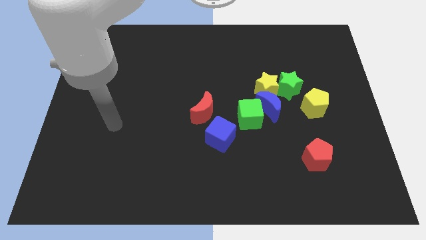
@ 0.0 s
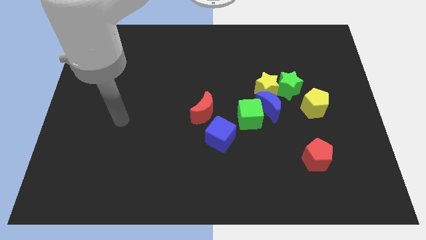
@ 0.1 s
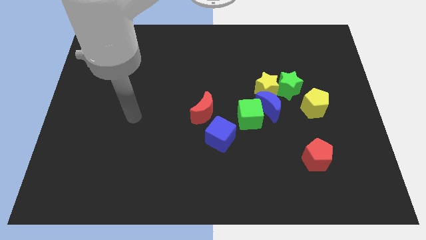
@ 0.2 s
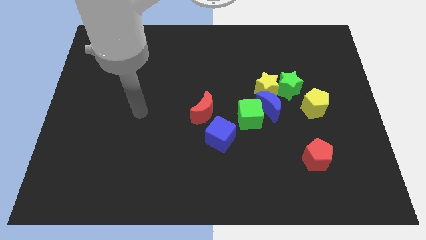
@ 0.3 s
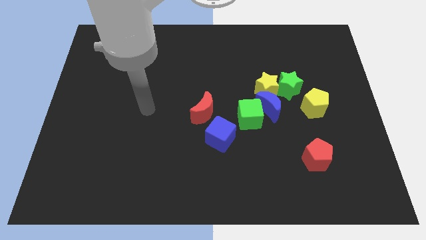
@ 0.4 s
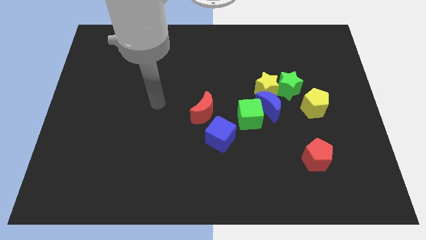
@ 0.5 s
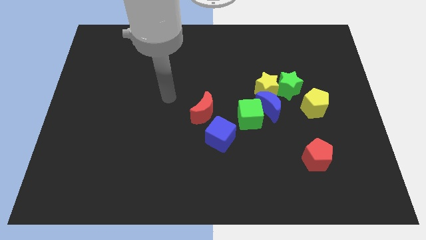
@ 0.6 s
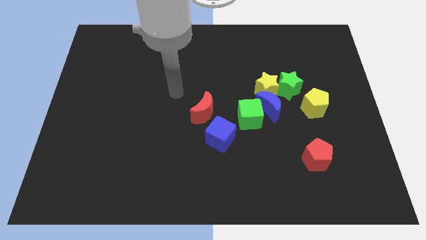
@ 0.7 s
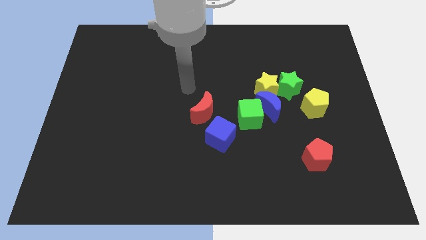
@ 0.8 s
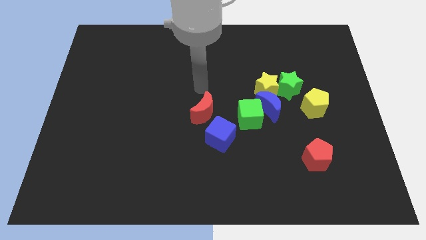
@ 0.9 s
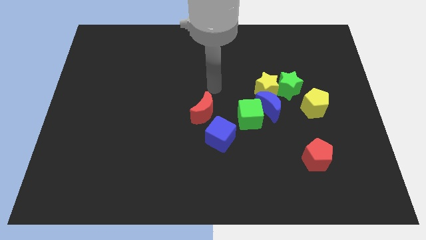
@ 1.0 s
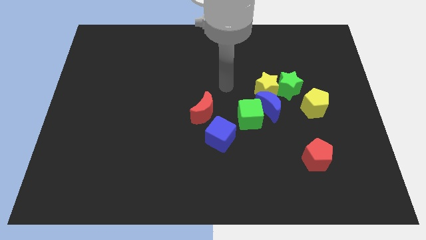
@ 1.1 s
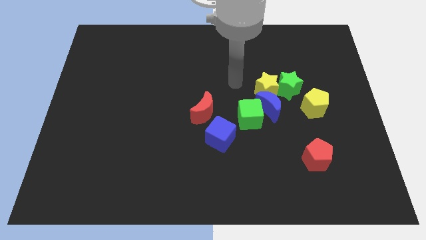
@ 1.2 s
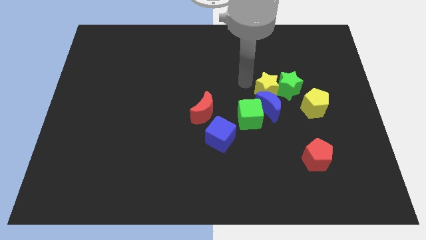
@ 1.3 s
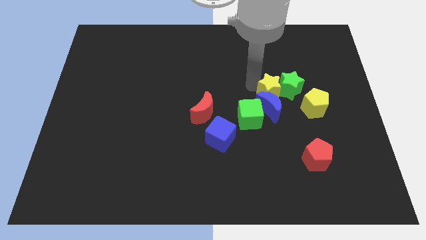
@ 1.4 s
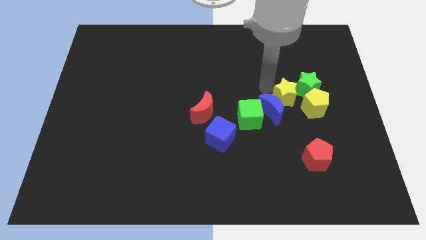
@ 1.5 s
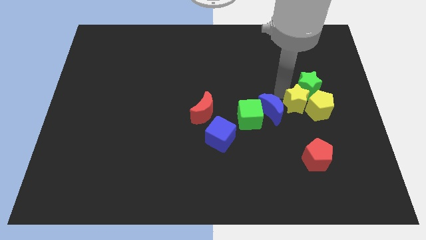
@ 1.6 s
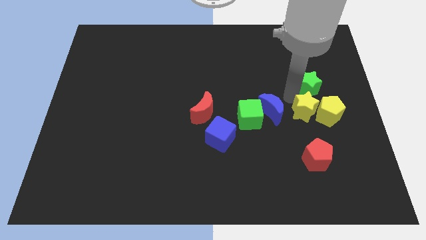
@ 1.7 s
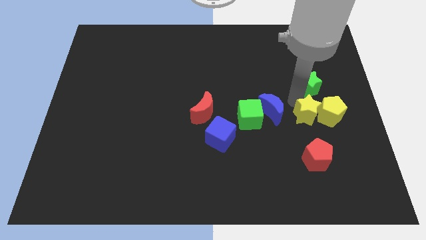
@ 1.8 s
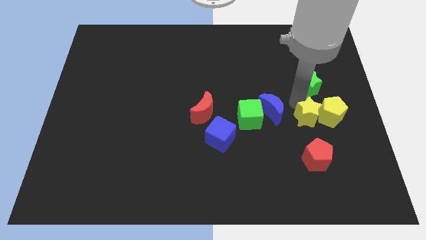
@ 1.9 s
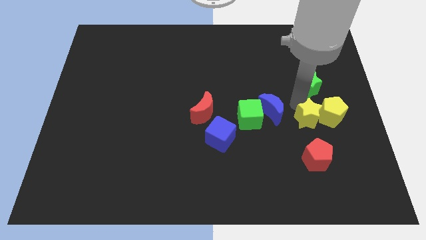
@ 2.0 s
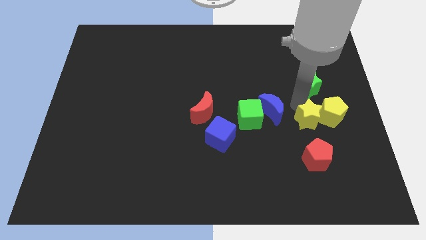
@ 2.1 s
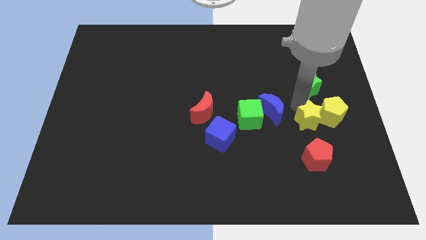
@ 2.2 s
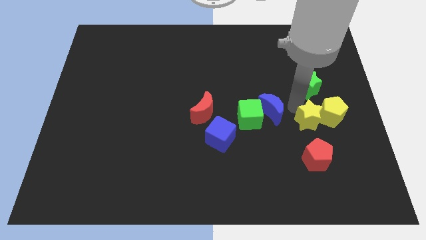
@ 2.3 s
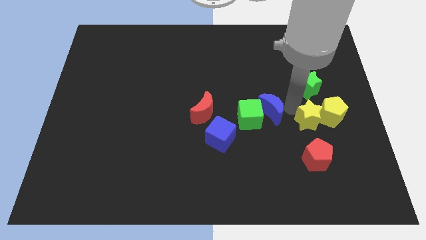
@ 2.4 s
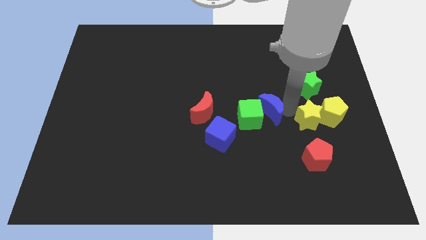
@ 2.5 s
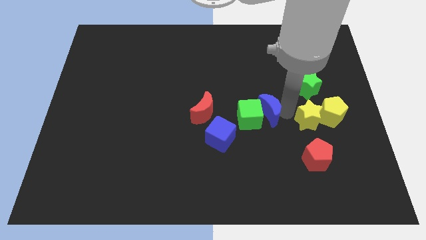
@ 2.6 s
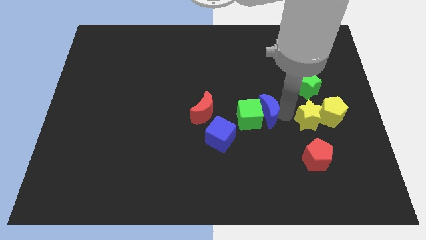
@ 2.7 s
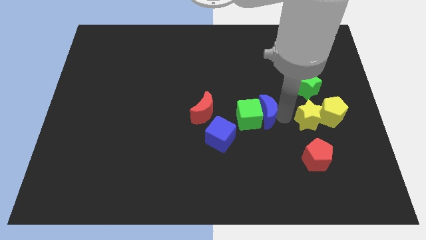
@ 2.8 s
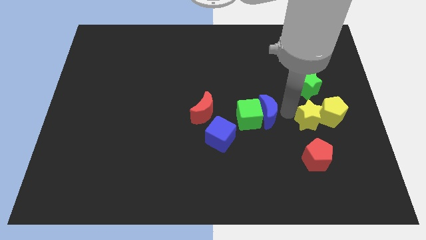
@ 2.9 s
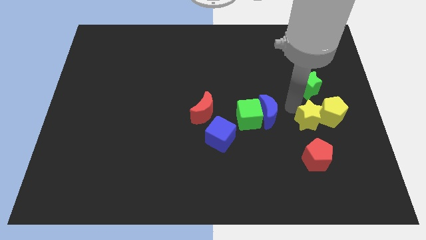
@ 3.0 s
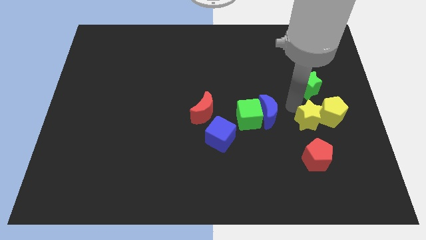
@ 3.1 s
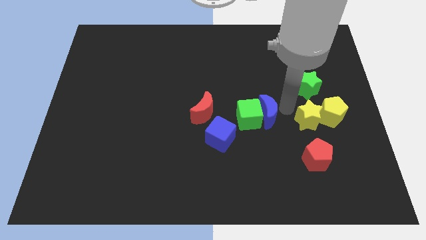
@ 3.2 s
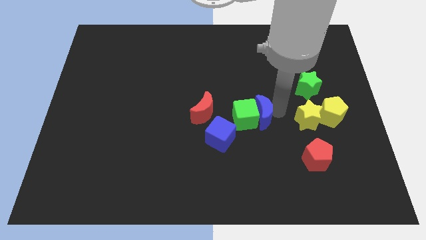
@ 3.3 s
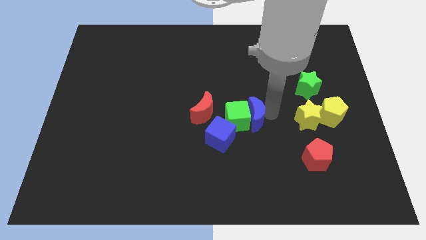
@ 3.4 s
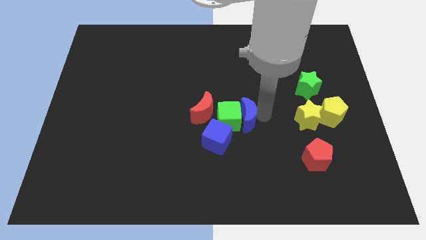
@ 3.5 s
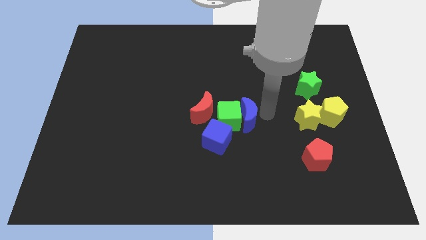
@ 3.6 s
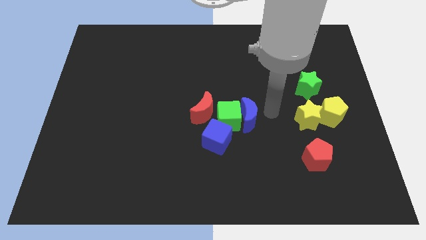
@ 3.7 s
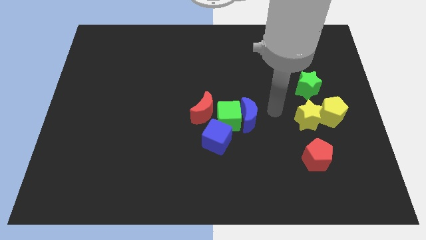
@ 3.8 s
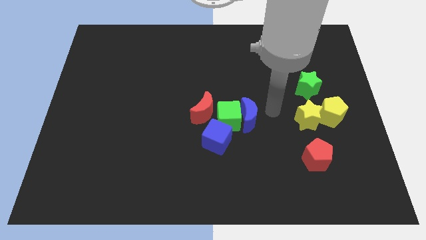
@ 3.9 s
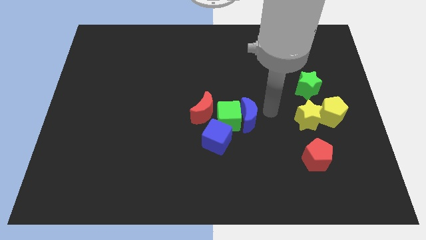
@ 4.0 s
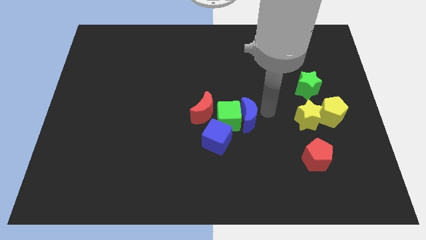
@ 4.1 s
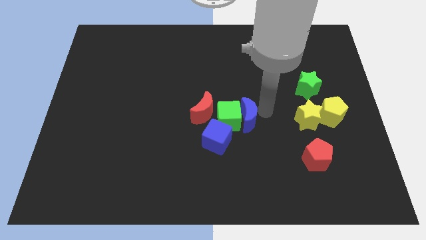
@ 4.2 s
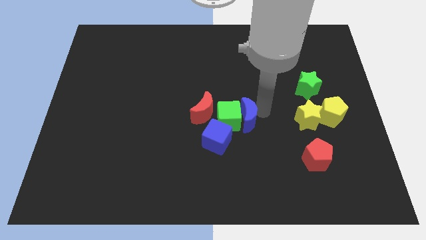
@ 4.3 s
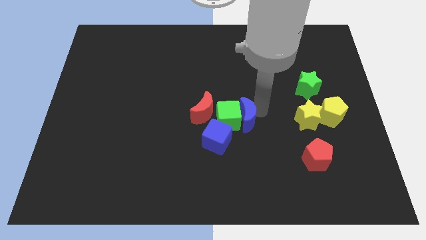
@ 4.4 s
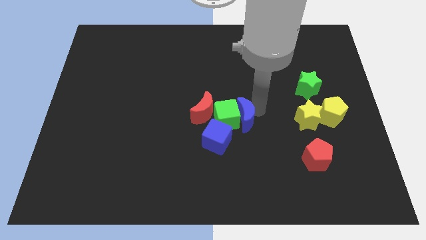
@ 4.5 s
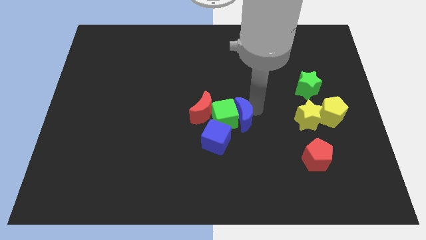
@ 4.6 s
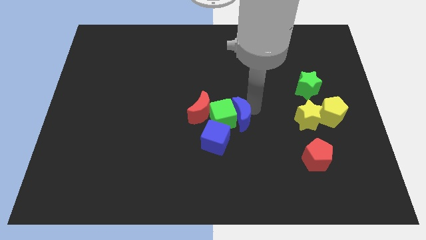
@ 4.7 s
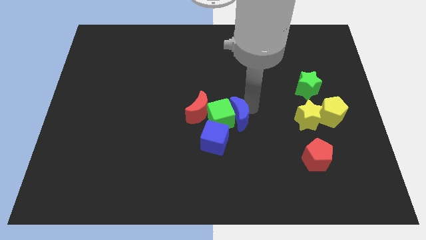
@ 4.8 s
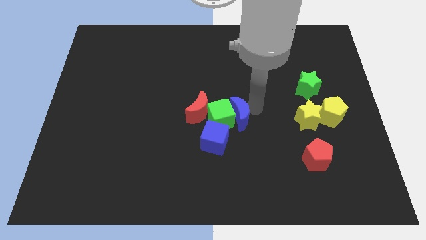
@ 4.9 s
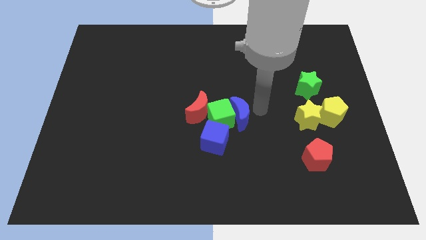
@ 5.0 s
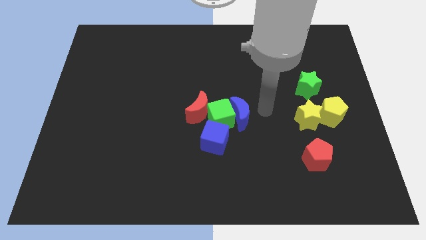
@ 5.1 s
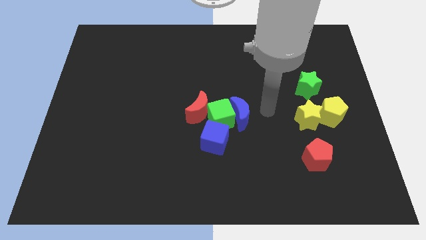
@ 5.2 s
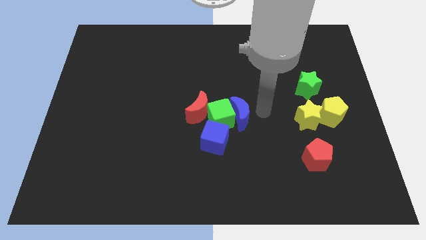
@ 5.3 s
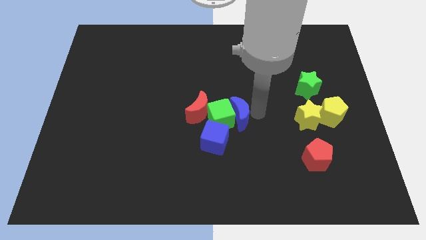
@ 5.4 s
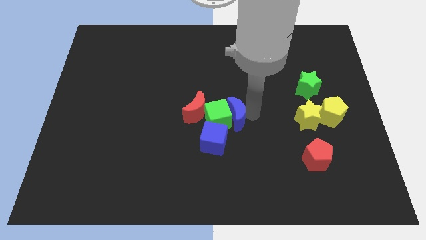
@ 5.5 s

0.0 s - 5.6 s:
separate the blue moon from the group

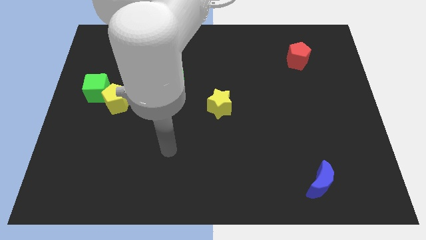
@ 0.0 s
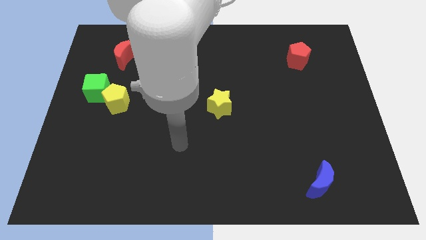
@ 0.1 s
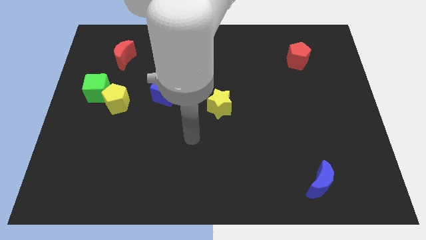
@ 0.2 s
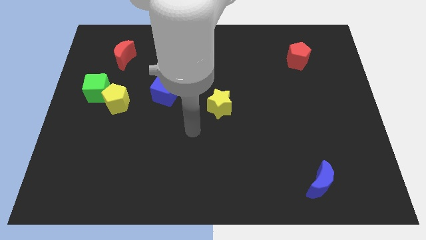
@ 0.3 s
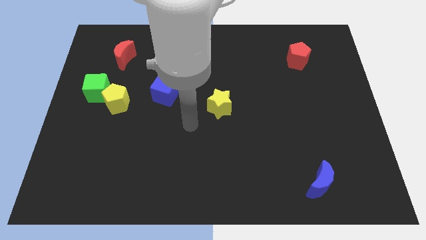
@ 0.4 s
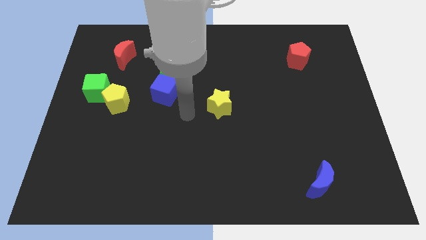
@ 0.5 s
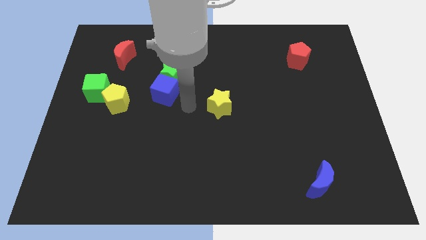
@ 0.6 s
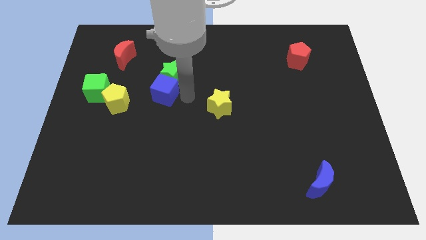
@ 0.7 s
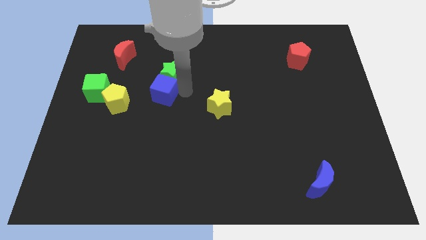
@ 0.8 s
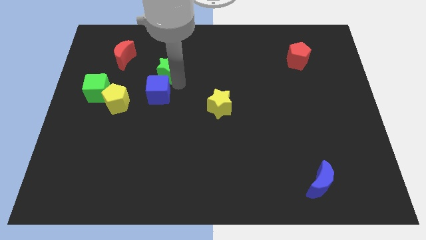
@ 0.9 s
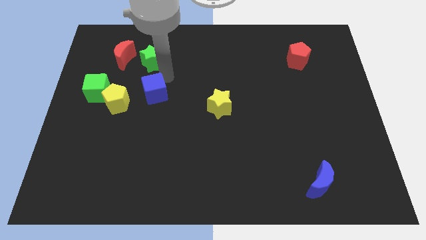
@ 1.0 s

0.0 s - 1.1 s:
separate the blue cube from the green star

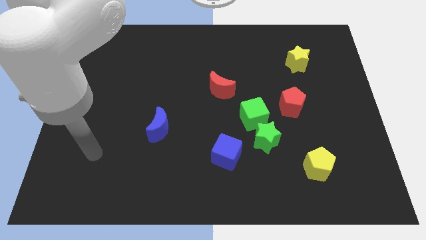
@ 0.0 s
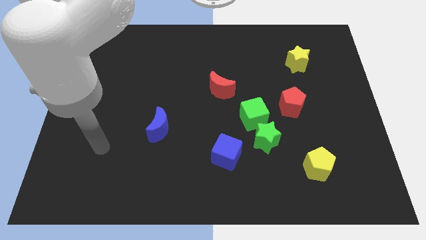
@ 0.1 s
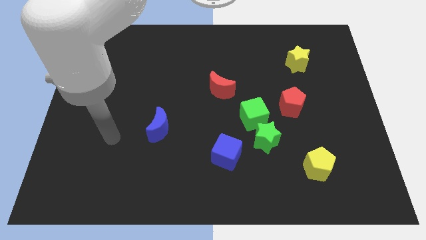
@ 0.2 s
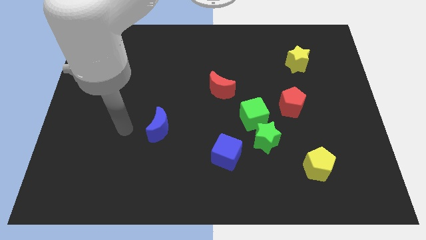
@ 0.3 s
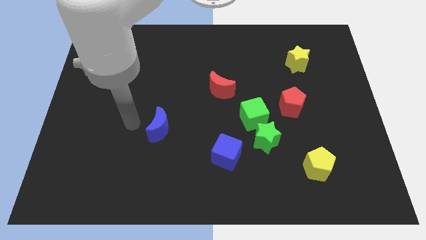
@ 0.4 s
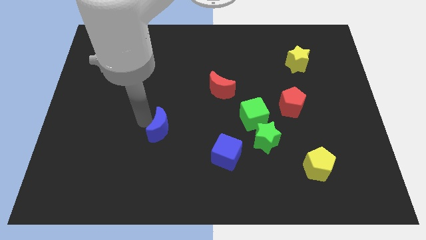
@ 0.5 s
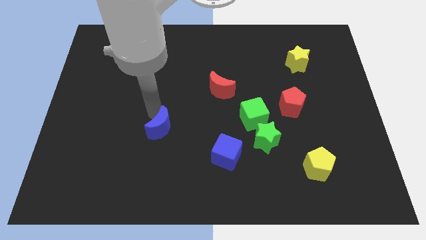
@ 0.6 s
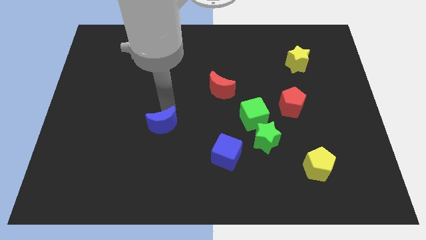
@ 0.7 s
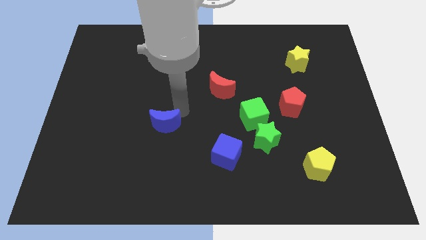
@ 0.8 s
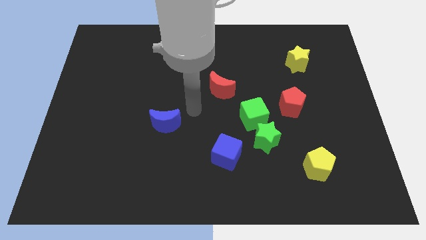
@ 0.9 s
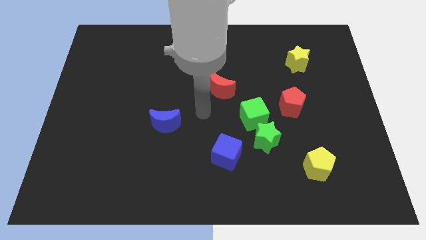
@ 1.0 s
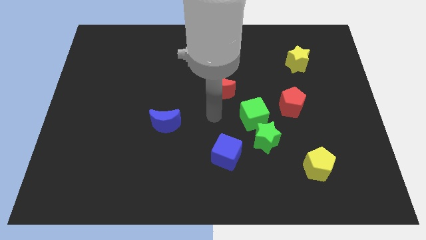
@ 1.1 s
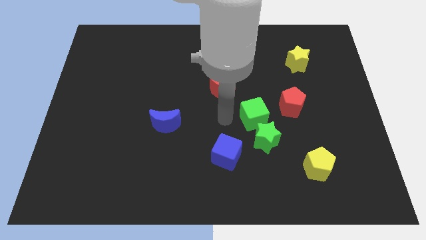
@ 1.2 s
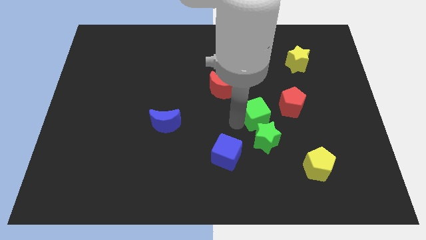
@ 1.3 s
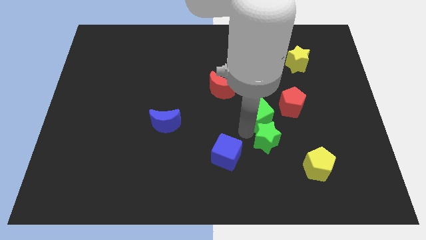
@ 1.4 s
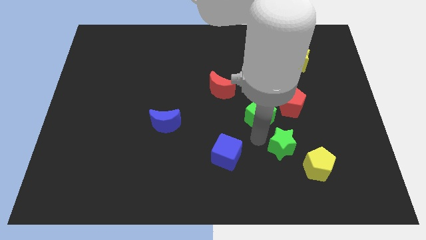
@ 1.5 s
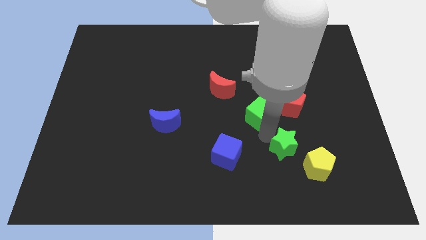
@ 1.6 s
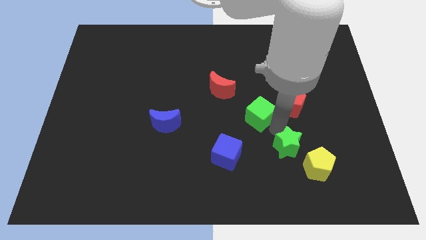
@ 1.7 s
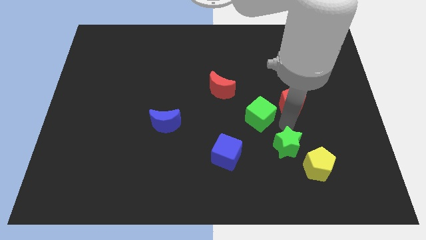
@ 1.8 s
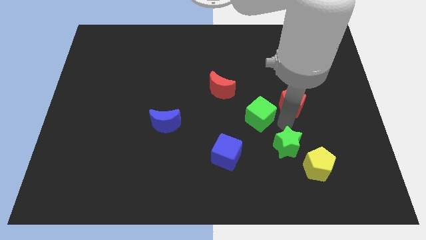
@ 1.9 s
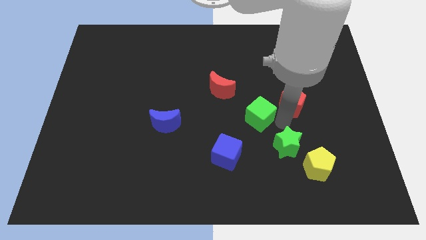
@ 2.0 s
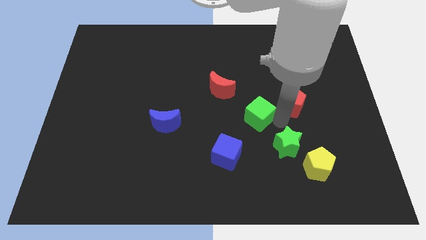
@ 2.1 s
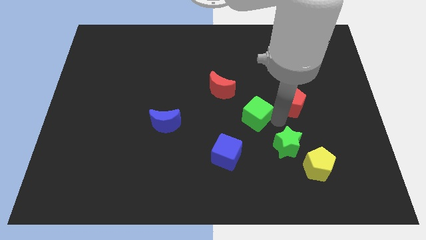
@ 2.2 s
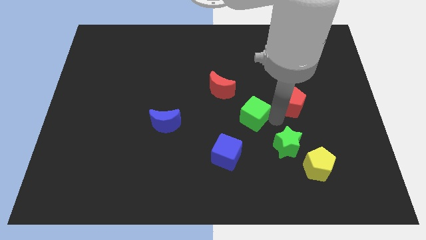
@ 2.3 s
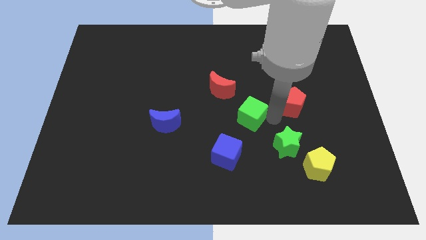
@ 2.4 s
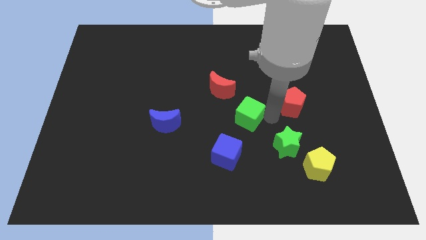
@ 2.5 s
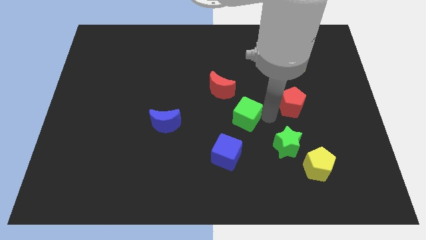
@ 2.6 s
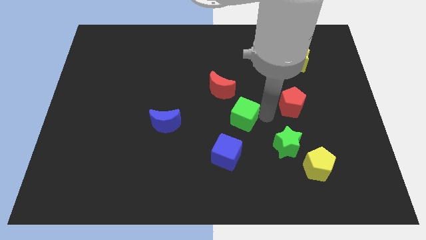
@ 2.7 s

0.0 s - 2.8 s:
pull the green cube apart from the green star and red pentagon

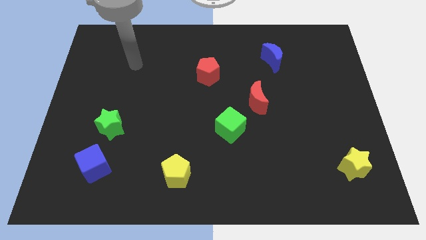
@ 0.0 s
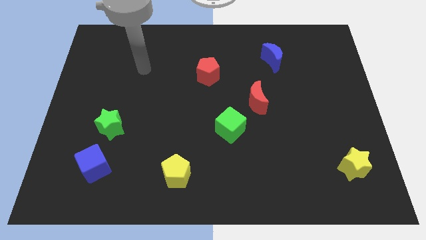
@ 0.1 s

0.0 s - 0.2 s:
separate the red moon from the green cube
